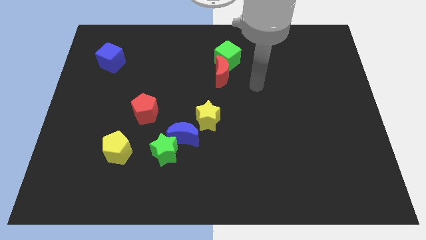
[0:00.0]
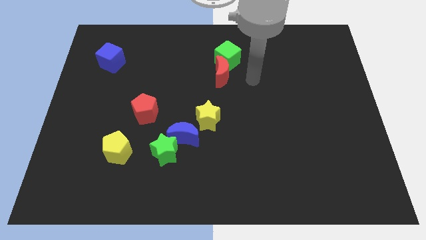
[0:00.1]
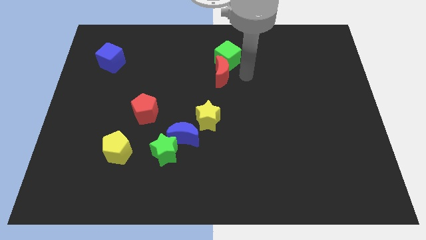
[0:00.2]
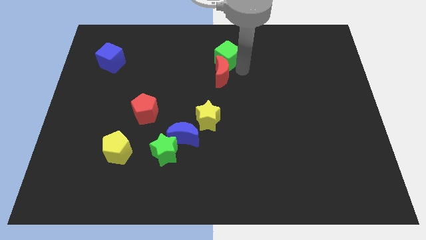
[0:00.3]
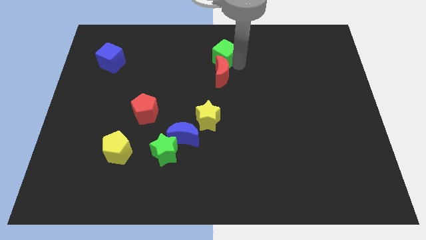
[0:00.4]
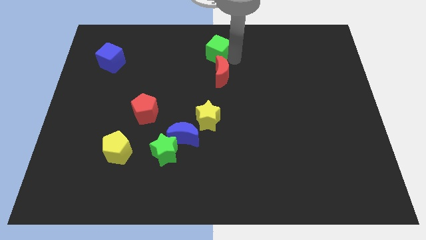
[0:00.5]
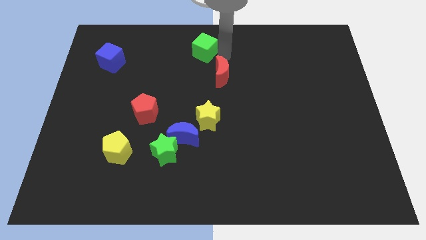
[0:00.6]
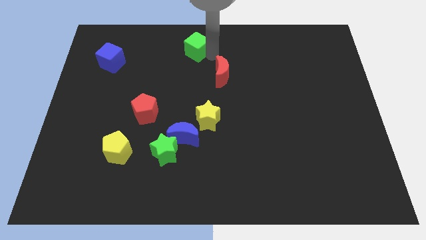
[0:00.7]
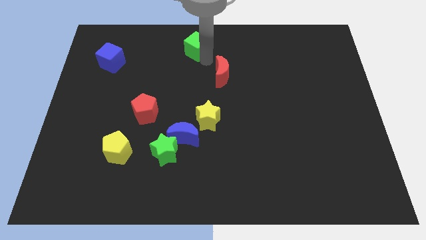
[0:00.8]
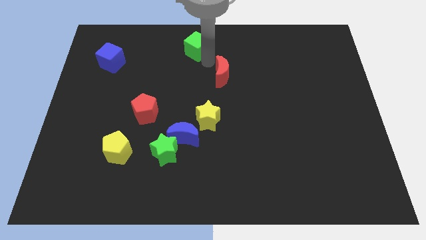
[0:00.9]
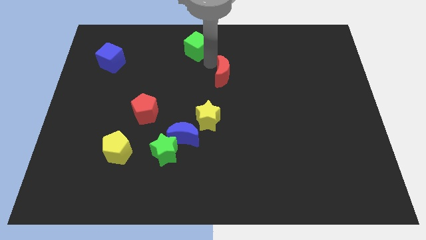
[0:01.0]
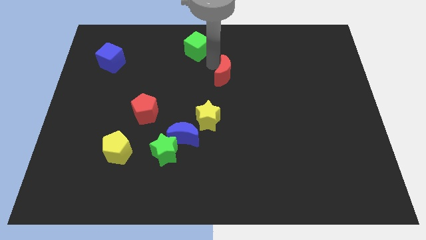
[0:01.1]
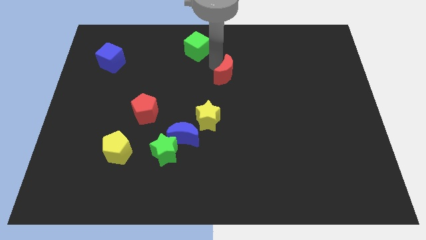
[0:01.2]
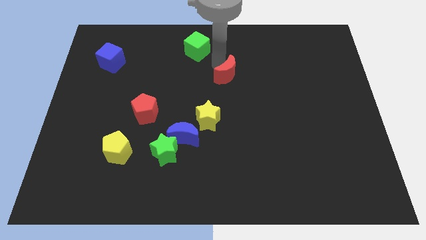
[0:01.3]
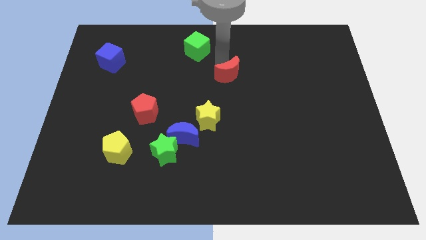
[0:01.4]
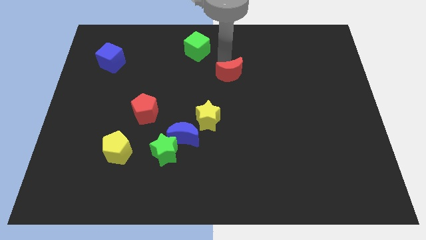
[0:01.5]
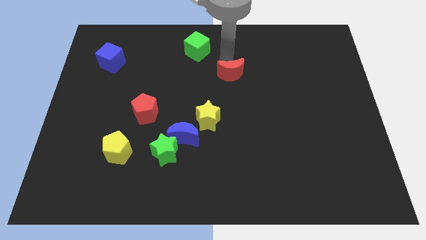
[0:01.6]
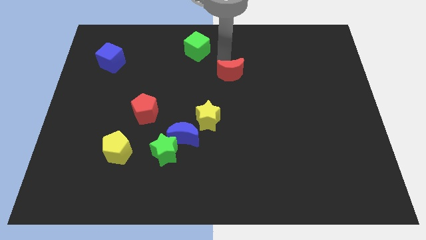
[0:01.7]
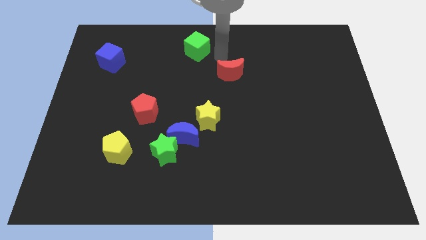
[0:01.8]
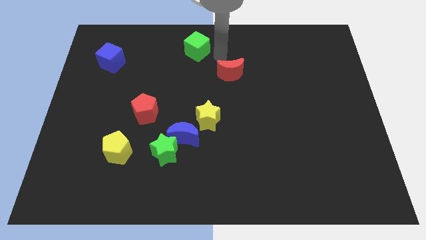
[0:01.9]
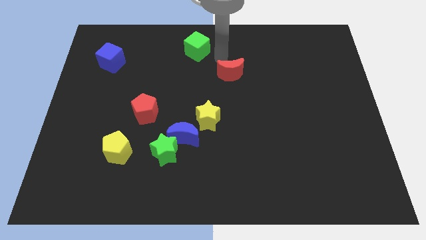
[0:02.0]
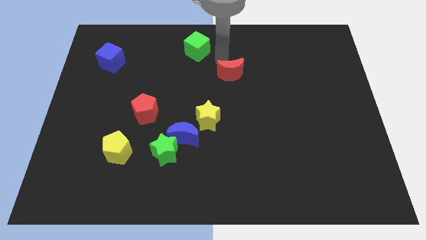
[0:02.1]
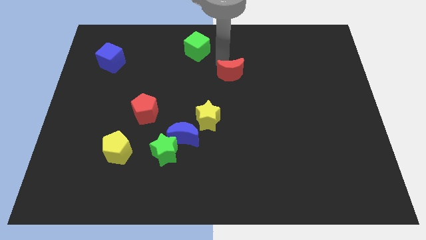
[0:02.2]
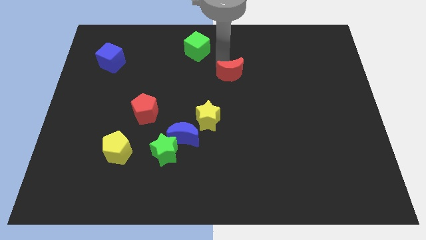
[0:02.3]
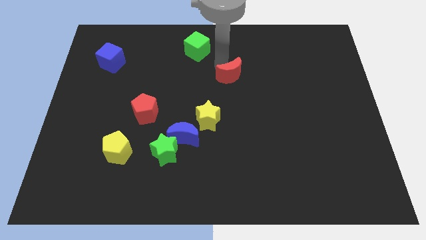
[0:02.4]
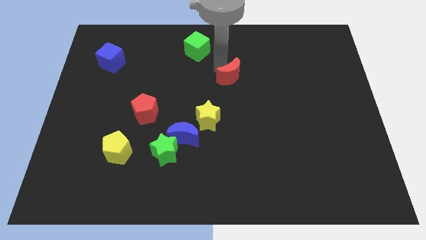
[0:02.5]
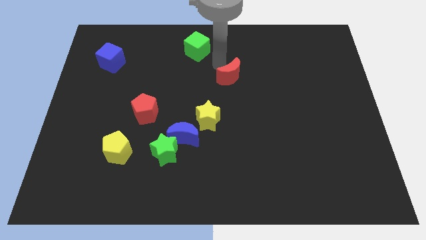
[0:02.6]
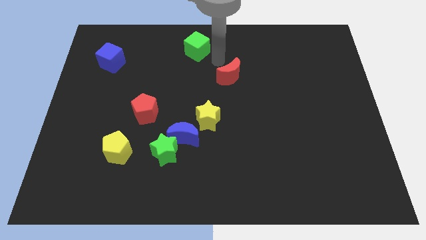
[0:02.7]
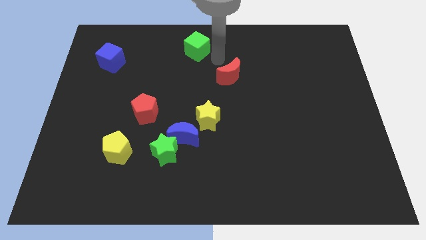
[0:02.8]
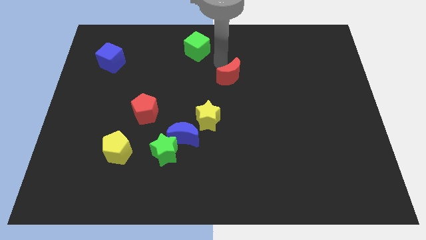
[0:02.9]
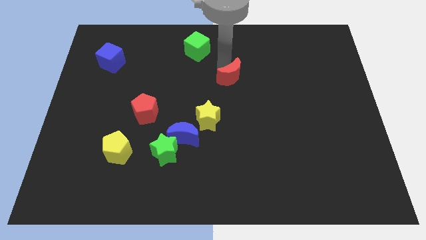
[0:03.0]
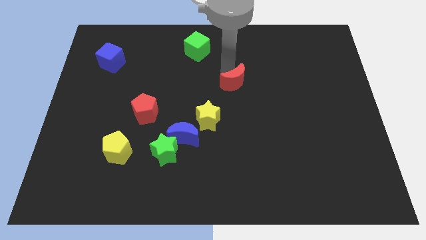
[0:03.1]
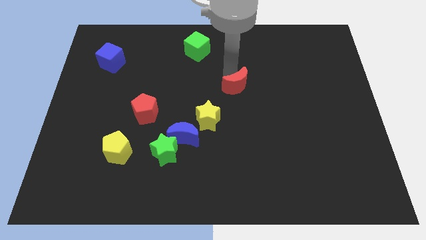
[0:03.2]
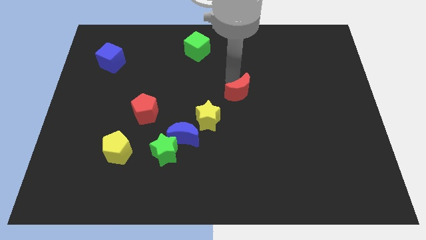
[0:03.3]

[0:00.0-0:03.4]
slightly push the red moon down and to the right diagonally

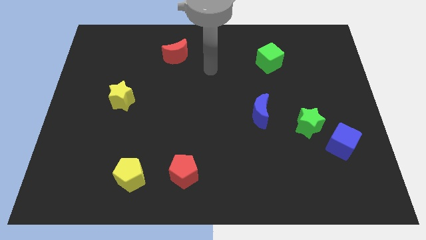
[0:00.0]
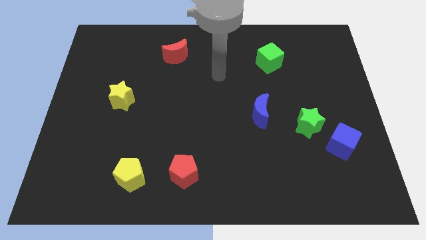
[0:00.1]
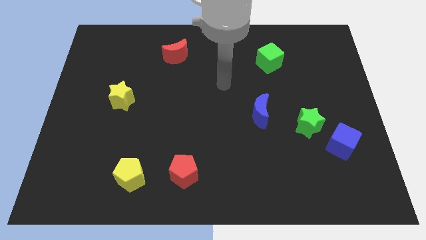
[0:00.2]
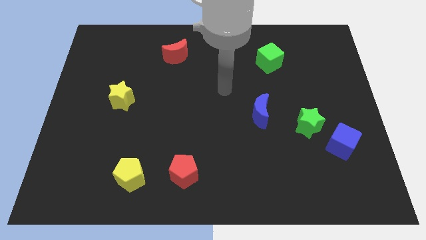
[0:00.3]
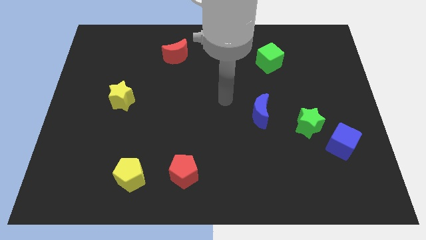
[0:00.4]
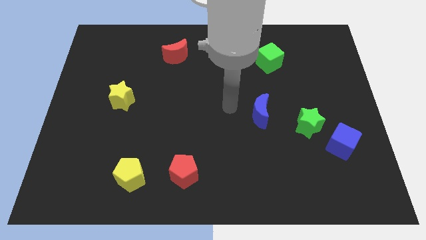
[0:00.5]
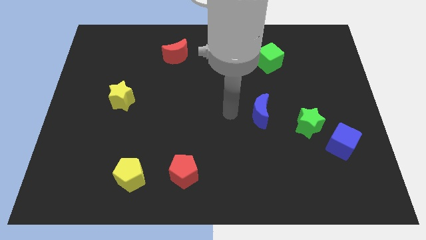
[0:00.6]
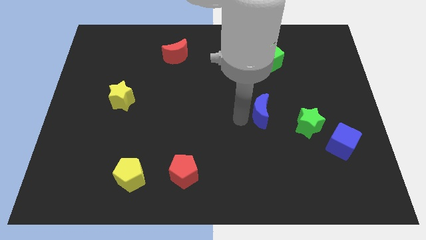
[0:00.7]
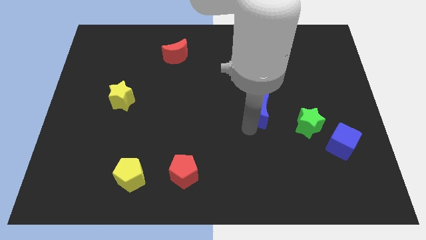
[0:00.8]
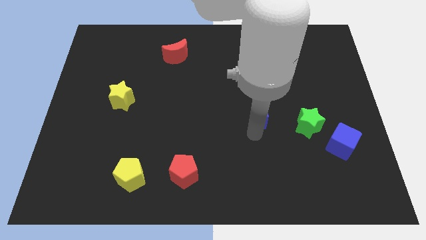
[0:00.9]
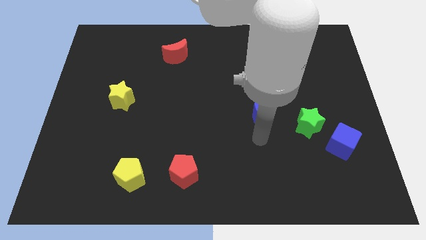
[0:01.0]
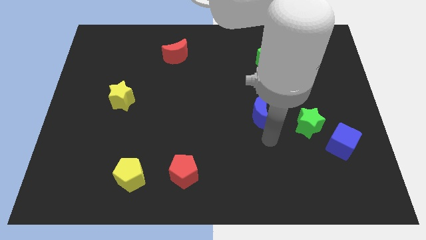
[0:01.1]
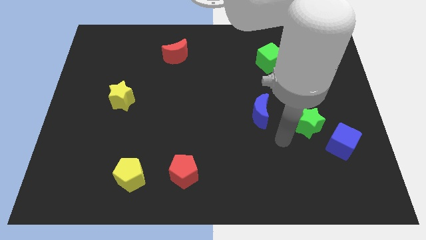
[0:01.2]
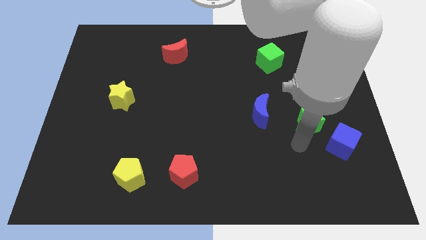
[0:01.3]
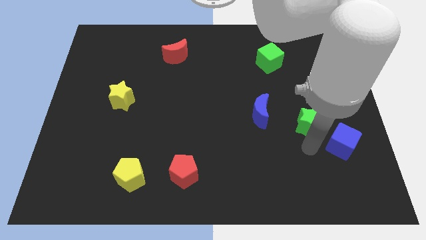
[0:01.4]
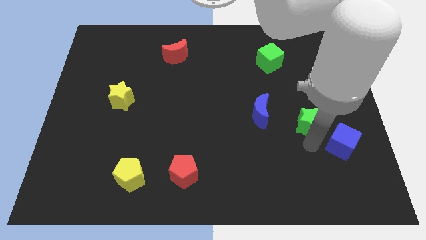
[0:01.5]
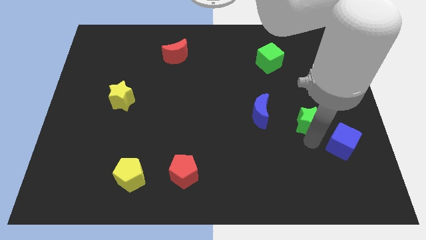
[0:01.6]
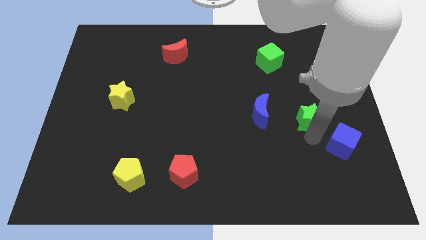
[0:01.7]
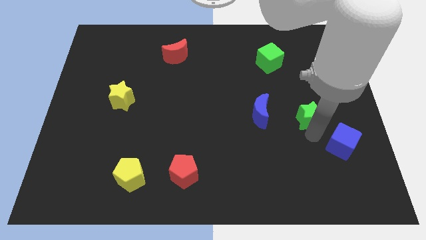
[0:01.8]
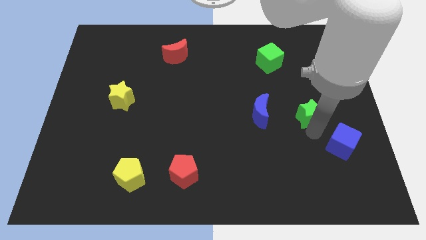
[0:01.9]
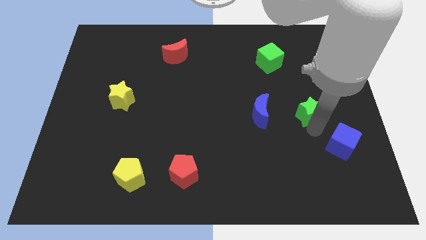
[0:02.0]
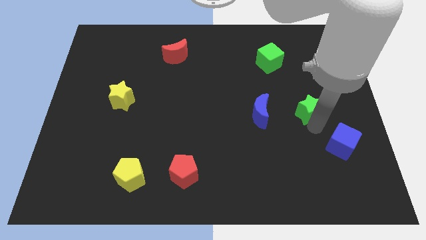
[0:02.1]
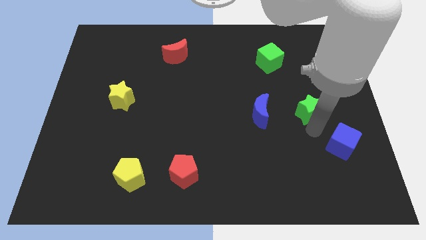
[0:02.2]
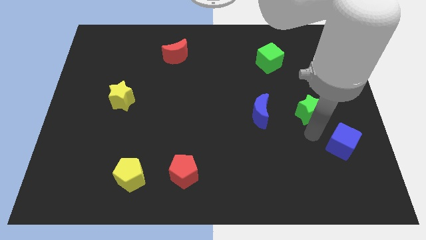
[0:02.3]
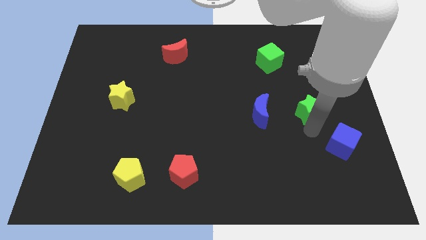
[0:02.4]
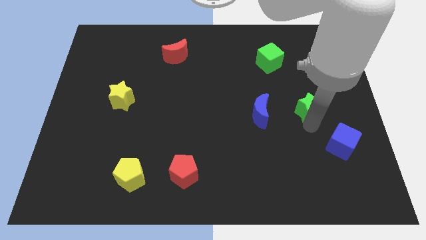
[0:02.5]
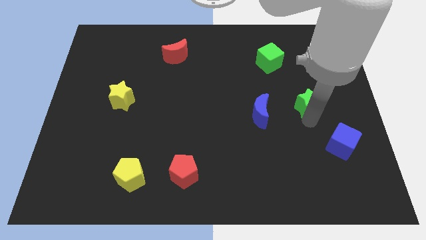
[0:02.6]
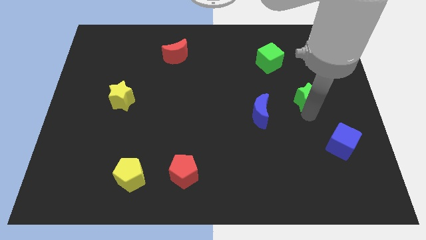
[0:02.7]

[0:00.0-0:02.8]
move the green star a bit upwards

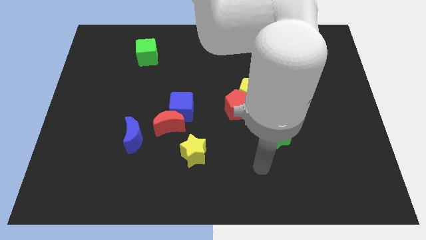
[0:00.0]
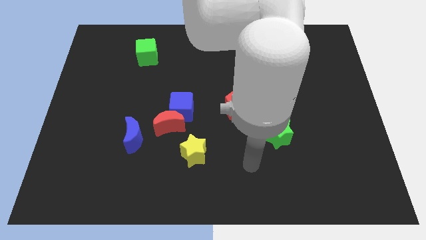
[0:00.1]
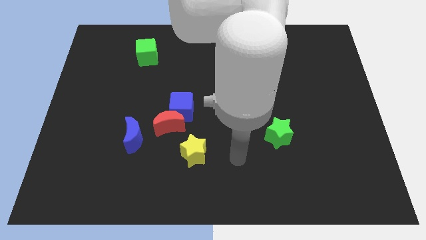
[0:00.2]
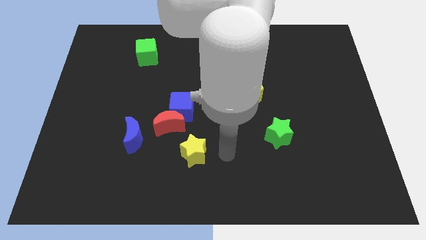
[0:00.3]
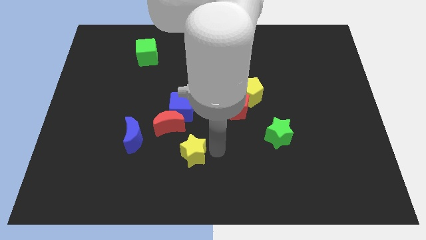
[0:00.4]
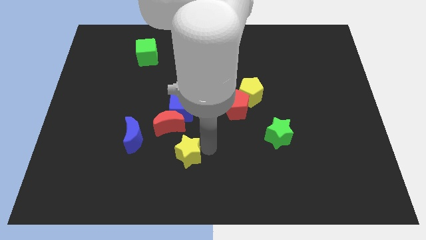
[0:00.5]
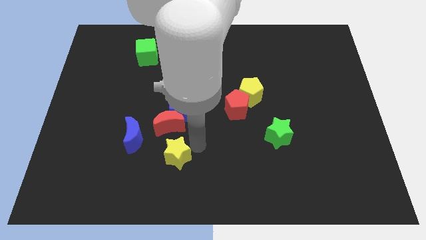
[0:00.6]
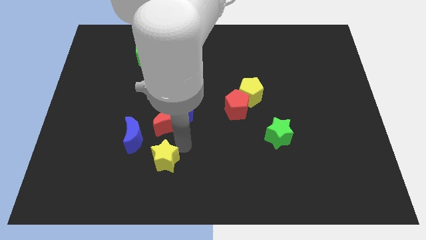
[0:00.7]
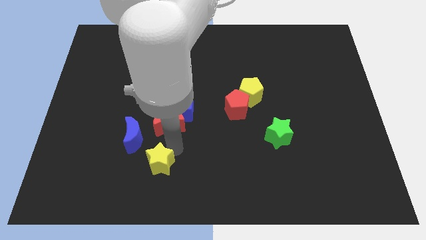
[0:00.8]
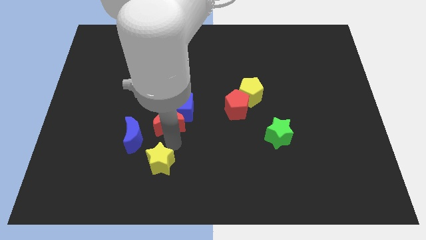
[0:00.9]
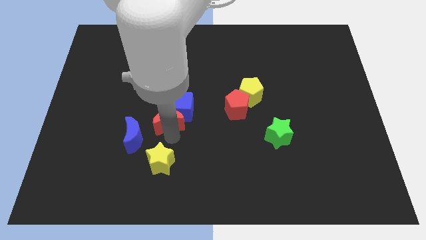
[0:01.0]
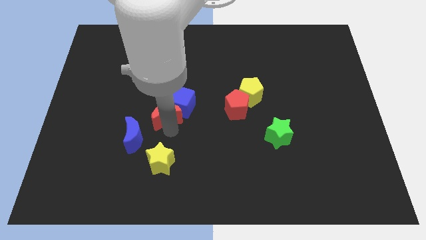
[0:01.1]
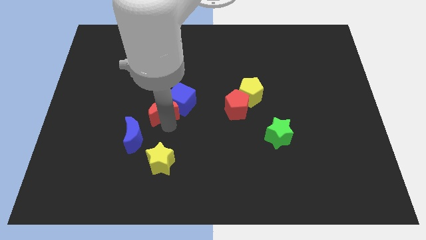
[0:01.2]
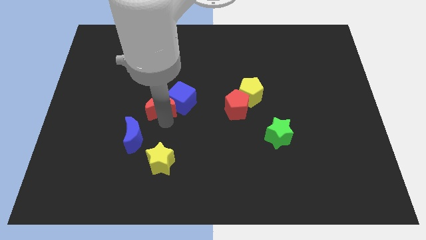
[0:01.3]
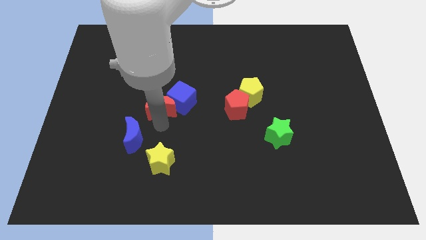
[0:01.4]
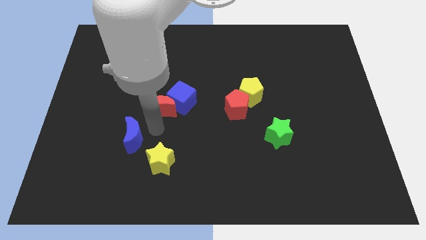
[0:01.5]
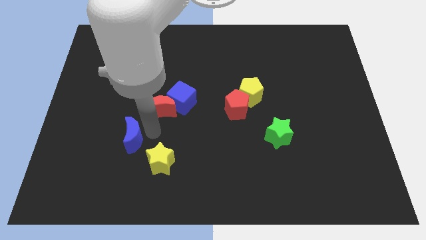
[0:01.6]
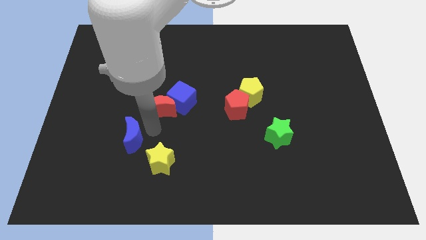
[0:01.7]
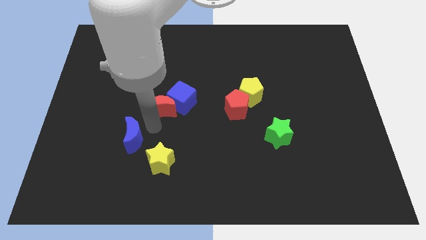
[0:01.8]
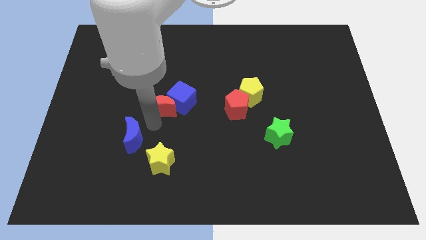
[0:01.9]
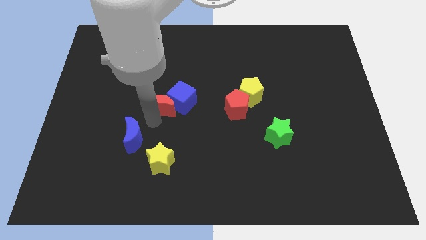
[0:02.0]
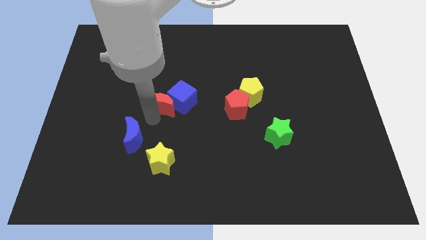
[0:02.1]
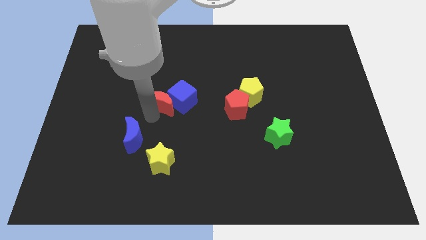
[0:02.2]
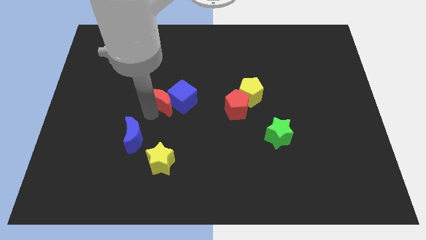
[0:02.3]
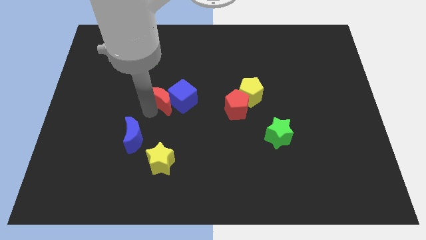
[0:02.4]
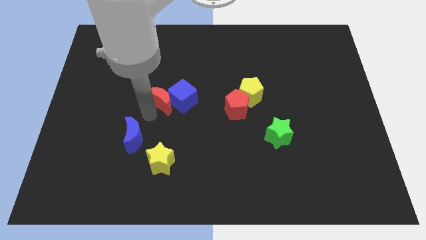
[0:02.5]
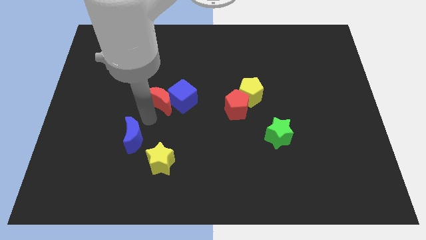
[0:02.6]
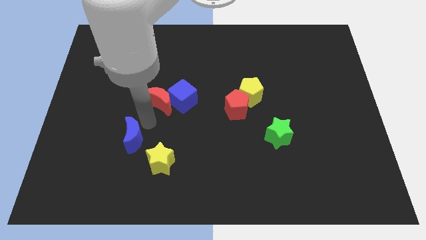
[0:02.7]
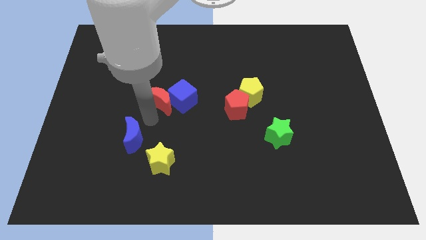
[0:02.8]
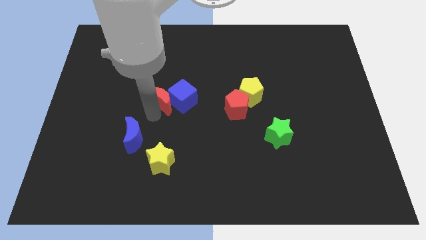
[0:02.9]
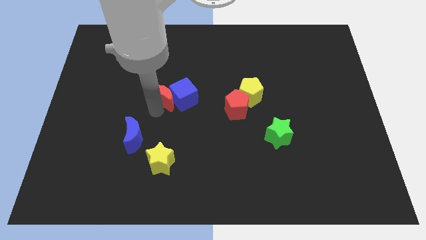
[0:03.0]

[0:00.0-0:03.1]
move the red moon slightly upwards
